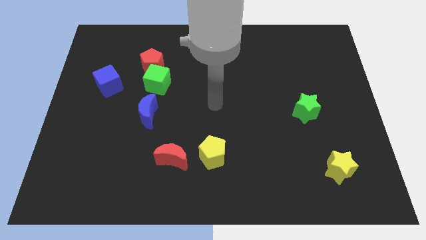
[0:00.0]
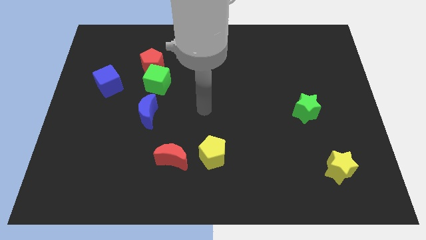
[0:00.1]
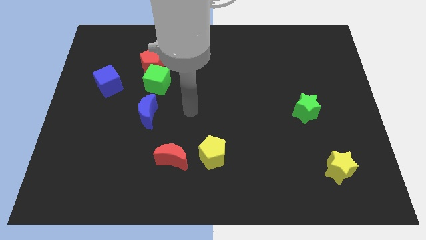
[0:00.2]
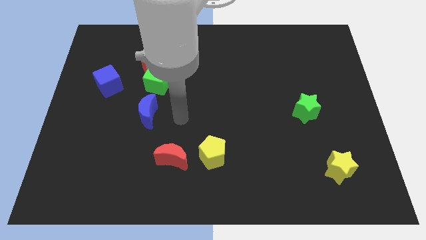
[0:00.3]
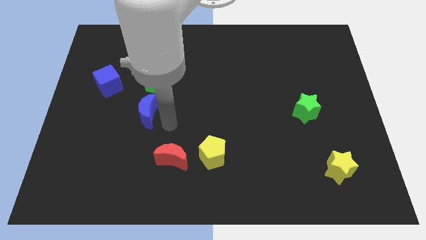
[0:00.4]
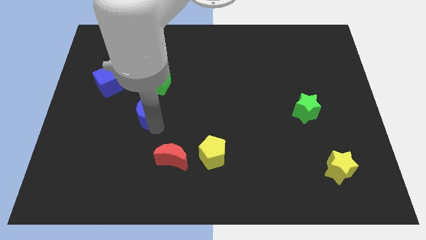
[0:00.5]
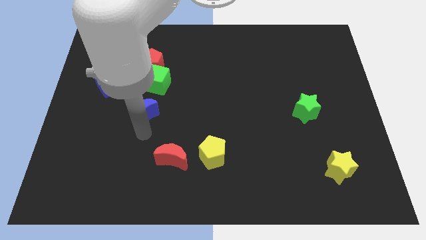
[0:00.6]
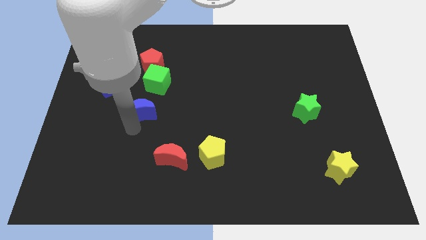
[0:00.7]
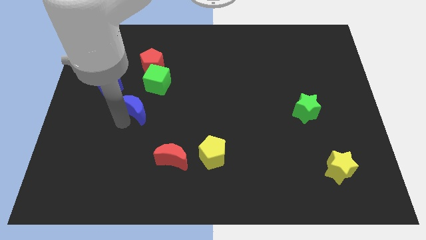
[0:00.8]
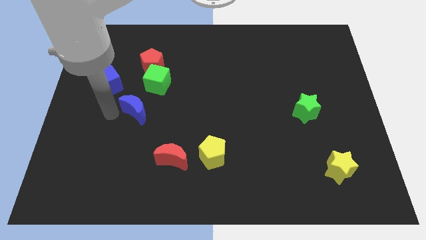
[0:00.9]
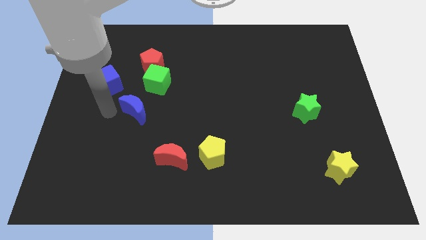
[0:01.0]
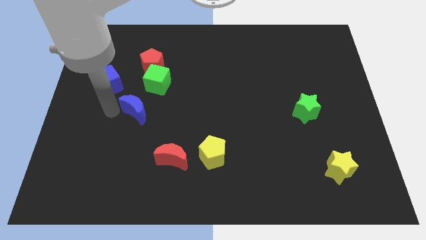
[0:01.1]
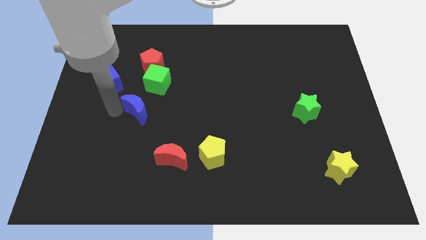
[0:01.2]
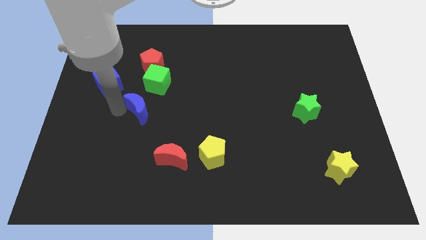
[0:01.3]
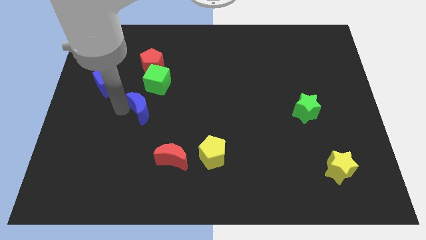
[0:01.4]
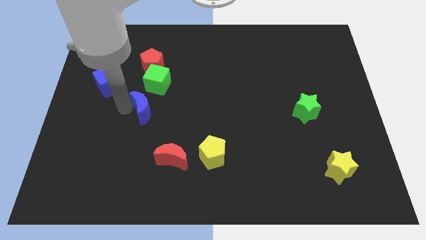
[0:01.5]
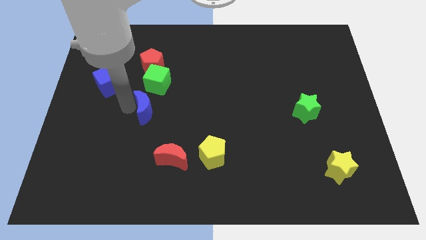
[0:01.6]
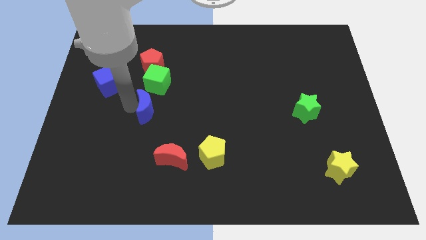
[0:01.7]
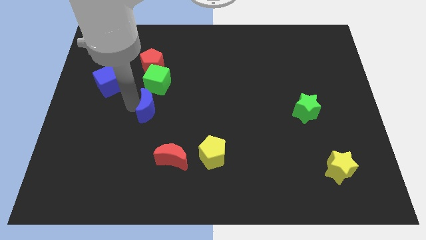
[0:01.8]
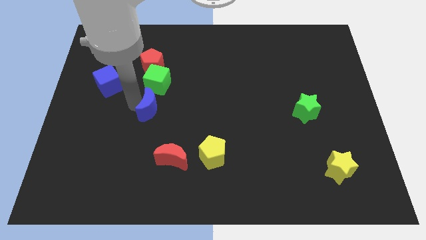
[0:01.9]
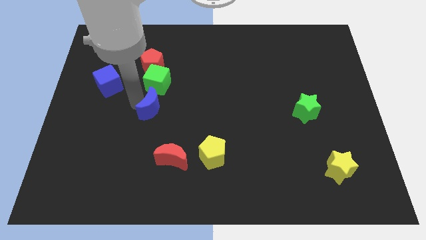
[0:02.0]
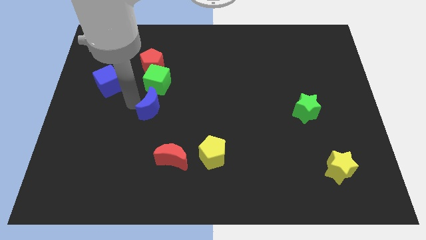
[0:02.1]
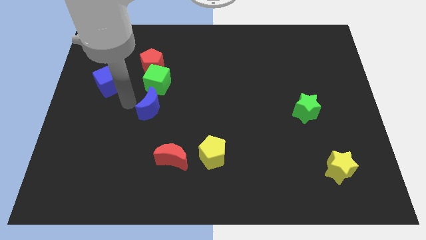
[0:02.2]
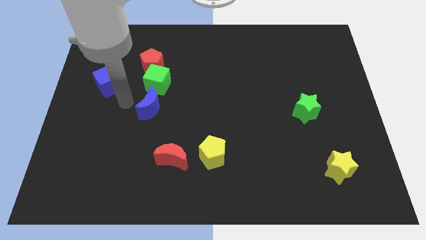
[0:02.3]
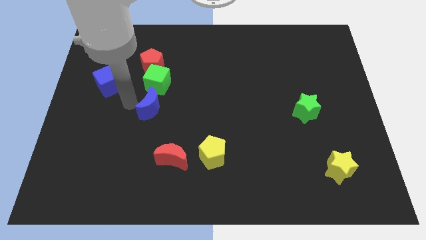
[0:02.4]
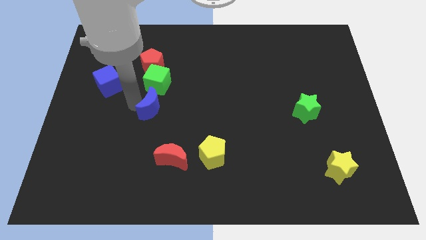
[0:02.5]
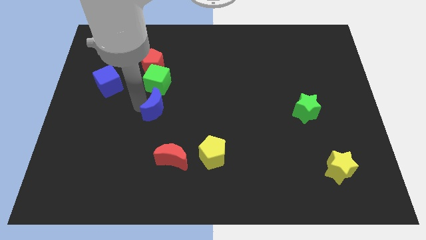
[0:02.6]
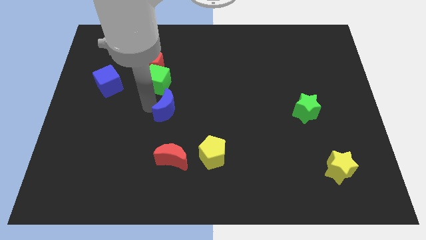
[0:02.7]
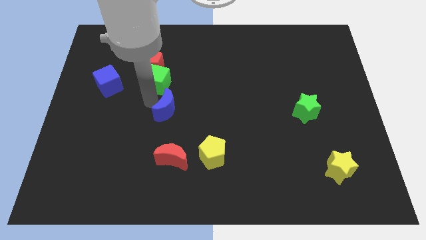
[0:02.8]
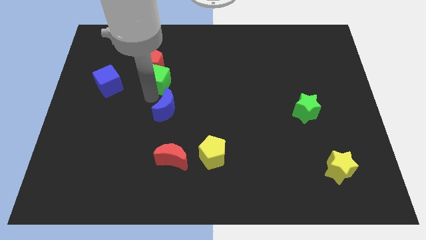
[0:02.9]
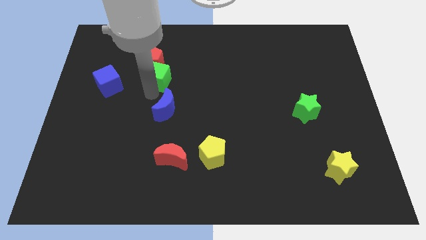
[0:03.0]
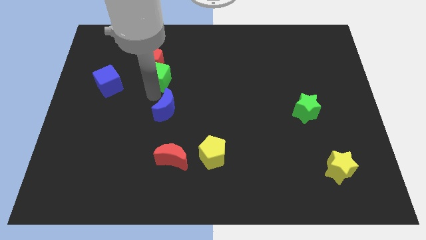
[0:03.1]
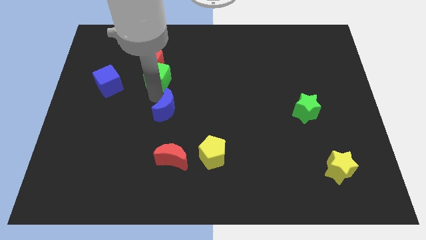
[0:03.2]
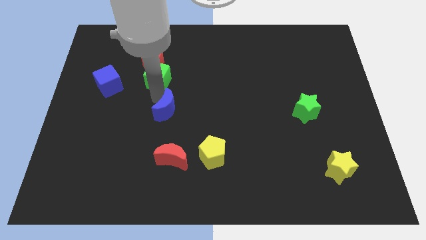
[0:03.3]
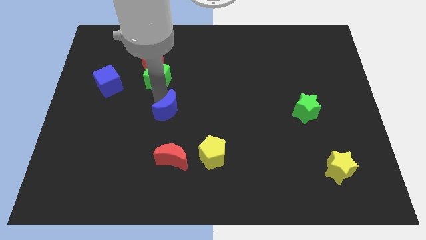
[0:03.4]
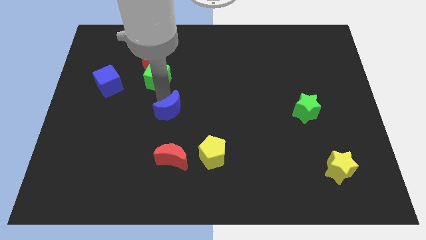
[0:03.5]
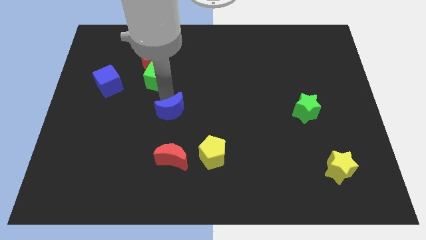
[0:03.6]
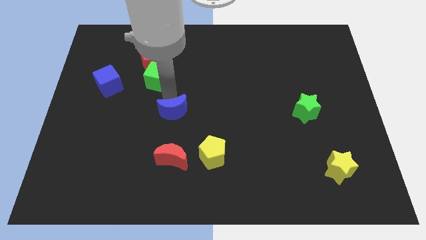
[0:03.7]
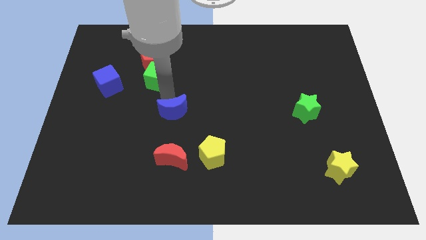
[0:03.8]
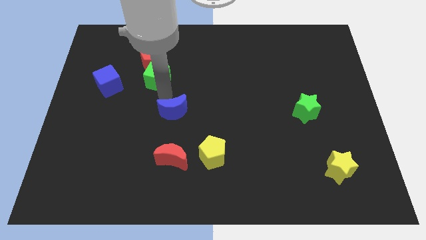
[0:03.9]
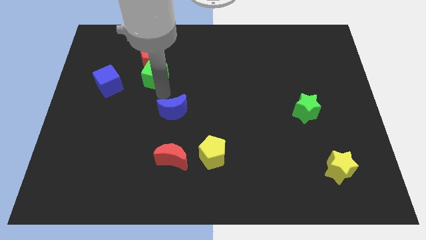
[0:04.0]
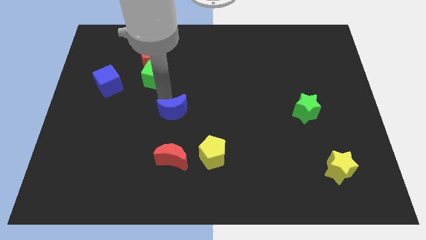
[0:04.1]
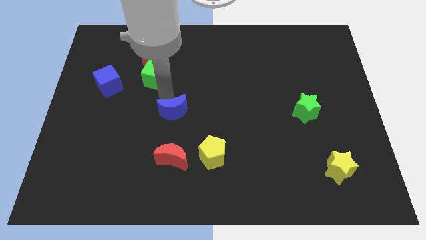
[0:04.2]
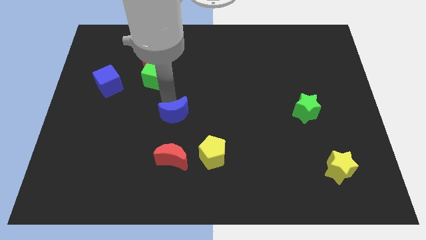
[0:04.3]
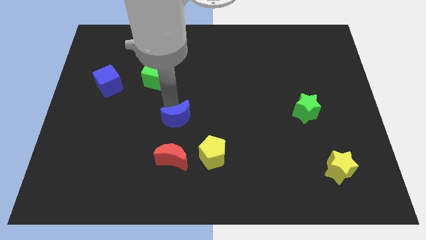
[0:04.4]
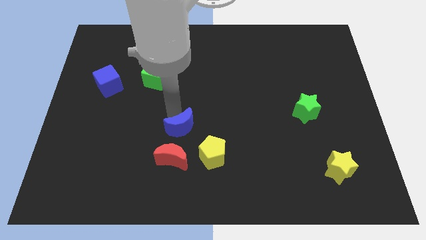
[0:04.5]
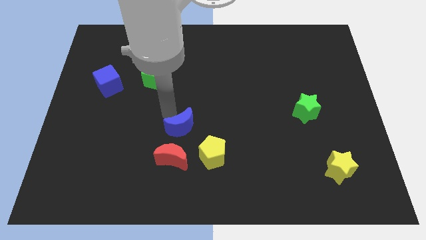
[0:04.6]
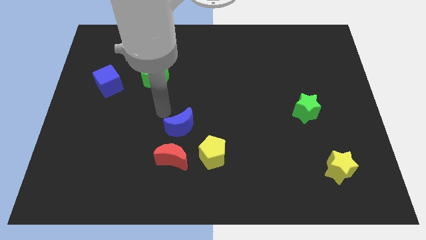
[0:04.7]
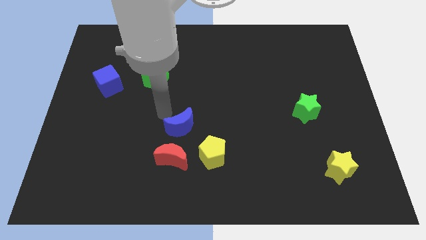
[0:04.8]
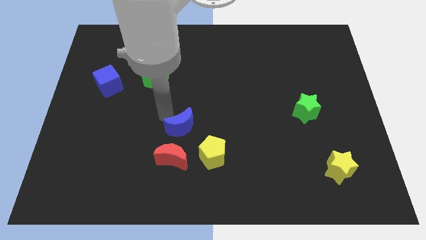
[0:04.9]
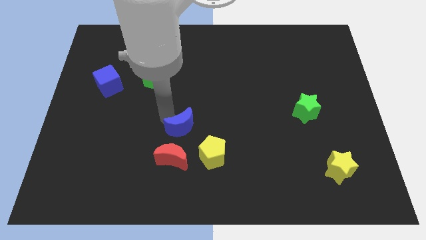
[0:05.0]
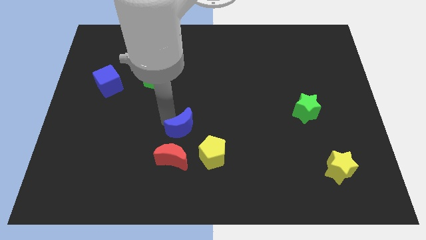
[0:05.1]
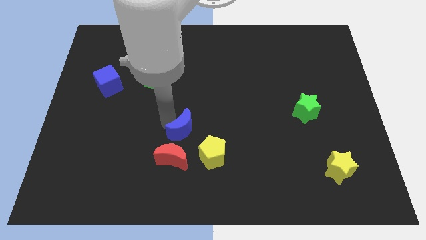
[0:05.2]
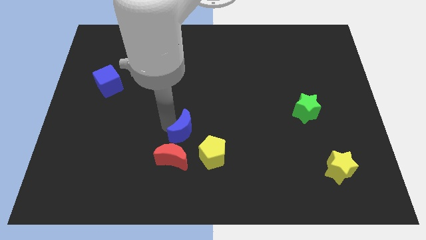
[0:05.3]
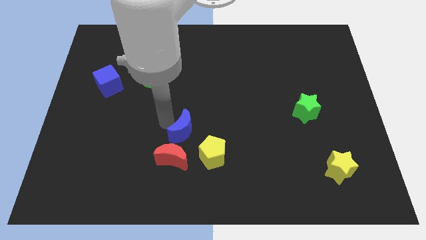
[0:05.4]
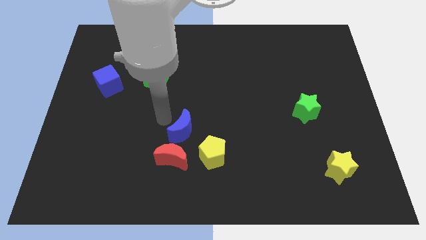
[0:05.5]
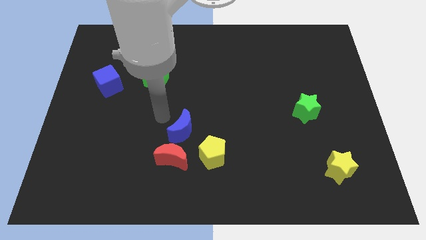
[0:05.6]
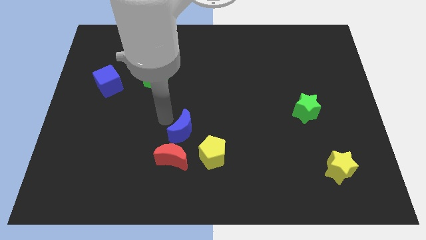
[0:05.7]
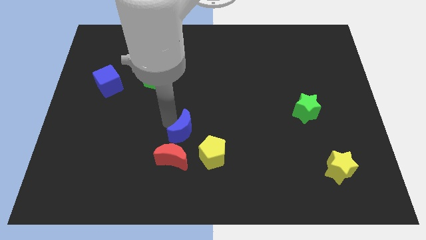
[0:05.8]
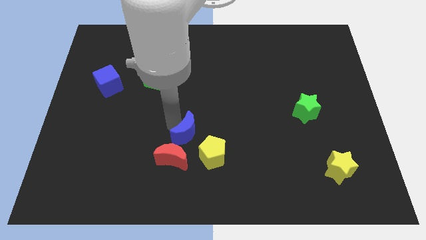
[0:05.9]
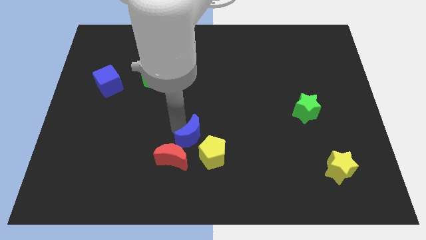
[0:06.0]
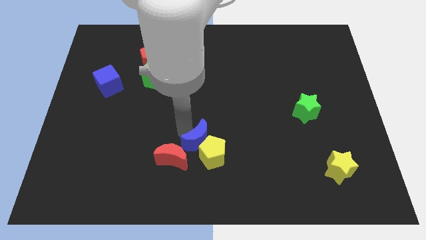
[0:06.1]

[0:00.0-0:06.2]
move the blue moon to the yellow pentagon

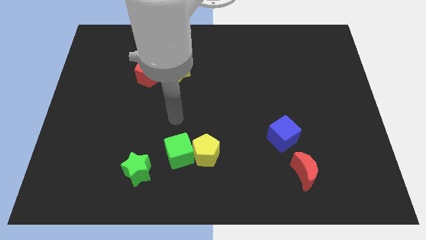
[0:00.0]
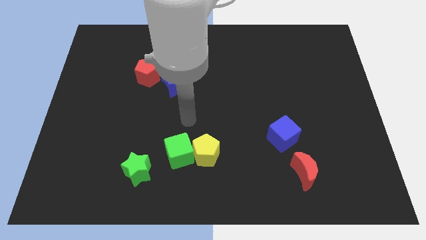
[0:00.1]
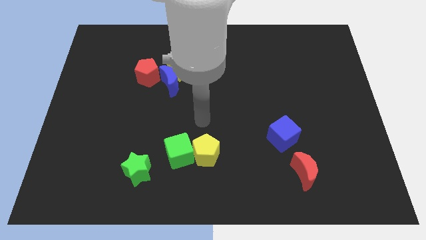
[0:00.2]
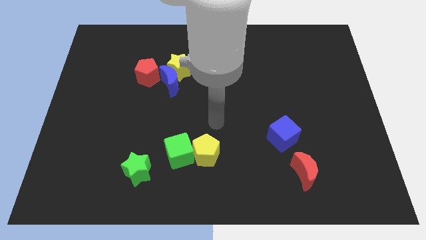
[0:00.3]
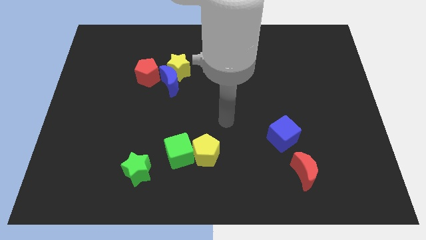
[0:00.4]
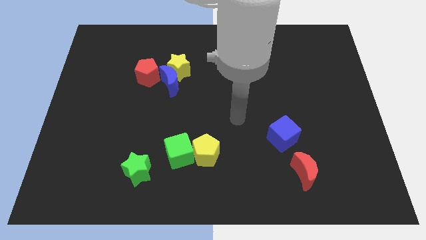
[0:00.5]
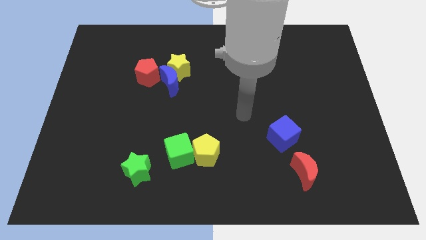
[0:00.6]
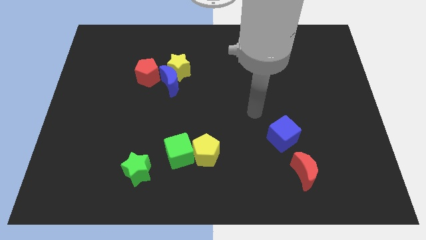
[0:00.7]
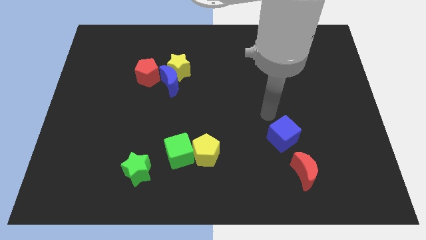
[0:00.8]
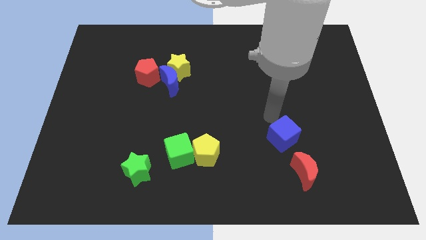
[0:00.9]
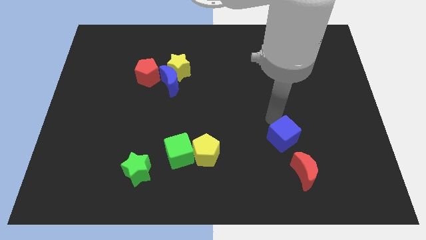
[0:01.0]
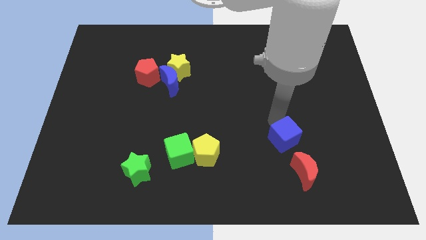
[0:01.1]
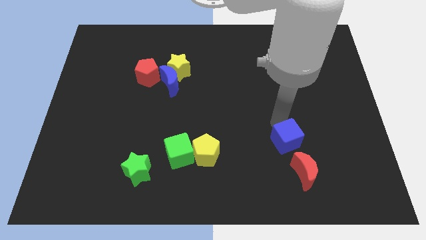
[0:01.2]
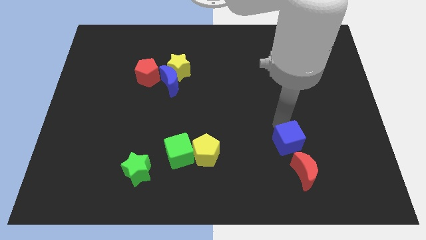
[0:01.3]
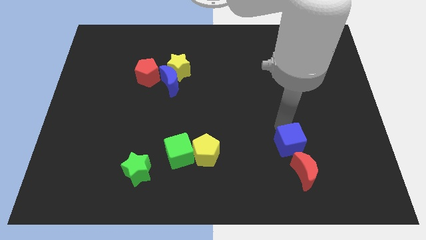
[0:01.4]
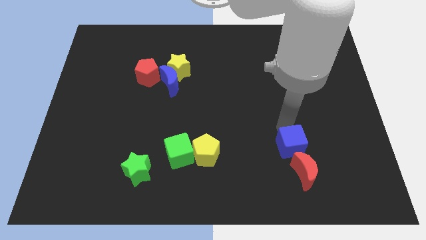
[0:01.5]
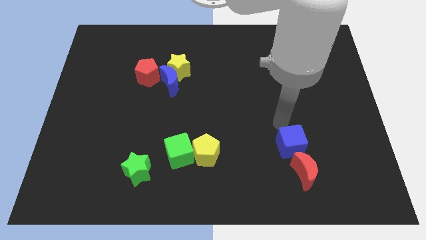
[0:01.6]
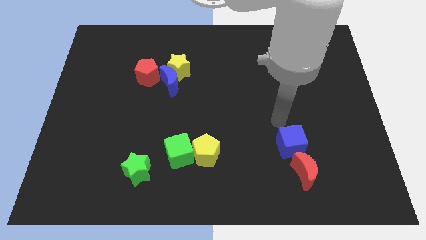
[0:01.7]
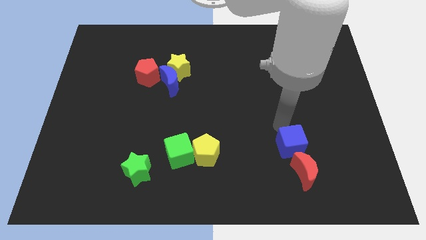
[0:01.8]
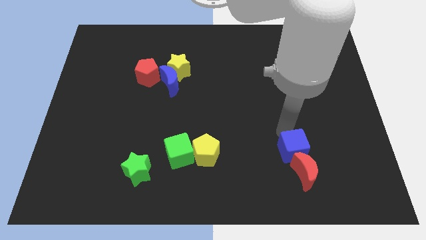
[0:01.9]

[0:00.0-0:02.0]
push the blue cube towards the red moon
